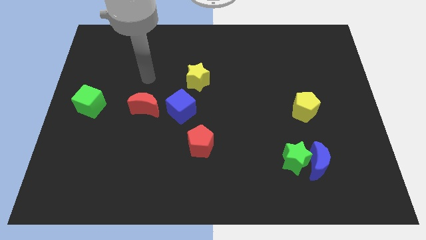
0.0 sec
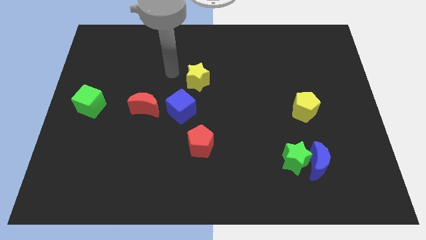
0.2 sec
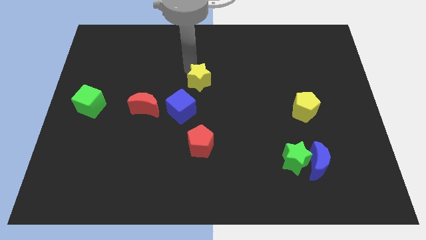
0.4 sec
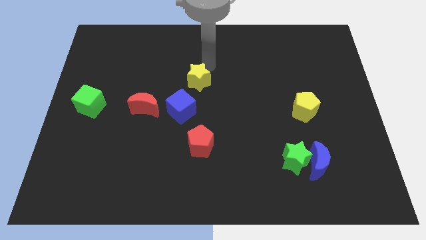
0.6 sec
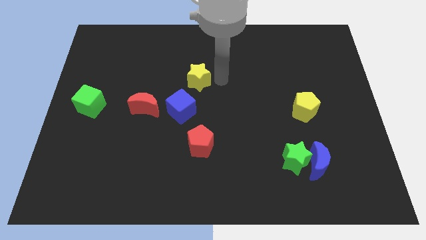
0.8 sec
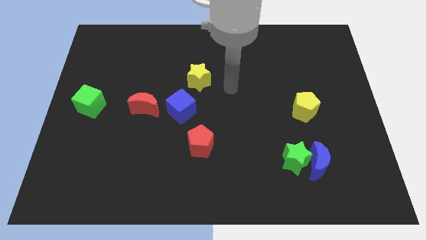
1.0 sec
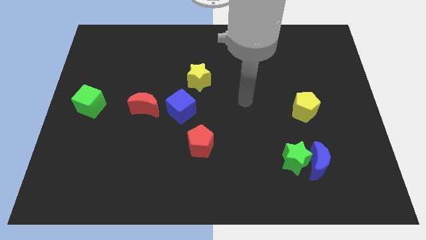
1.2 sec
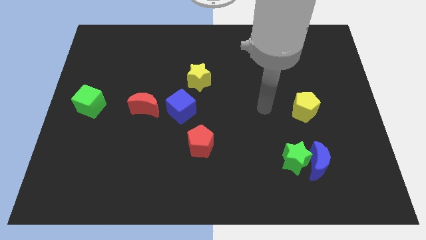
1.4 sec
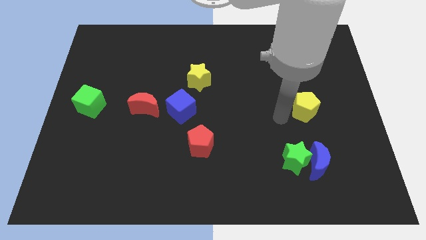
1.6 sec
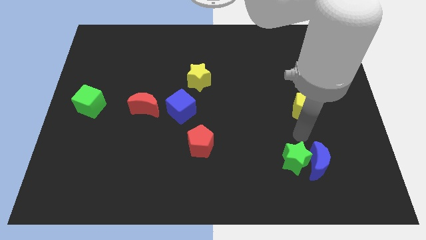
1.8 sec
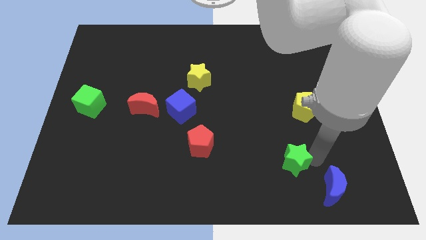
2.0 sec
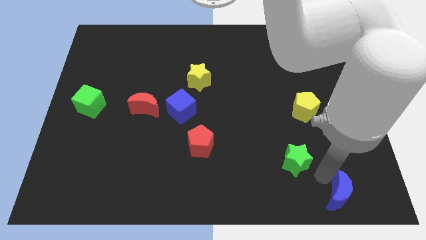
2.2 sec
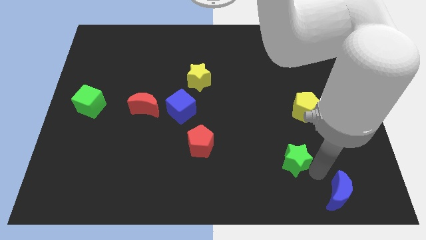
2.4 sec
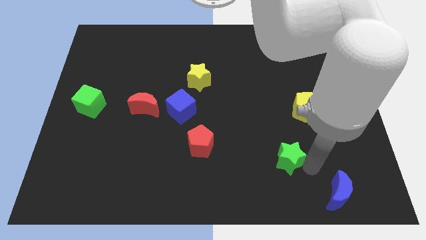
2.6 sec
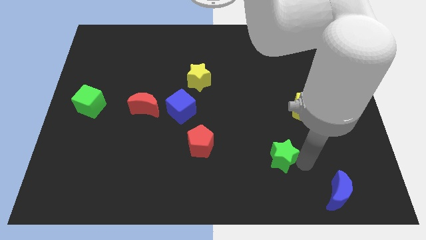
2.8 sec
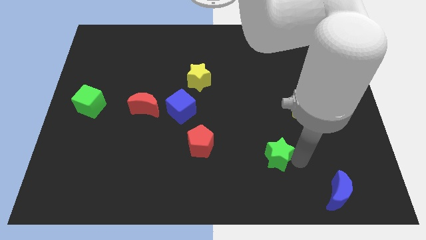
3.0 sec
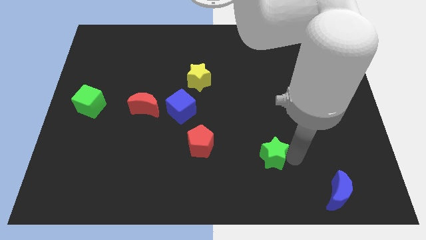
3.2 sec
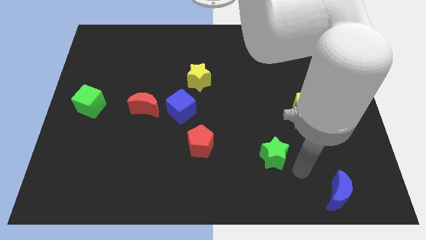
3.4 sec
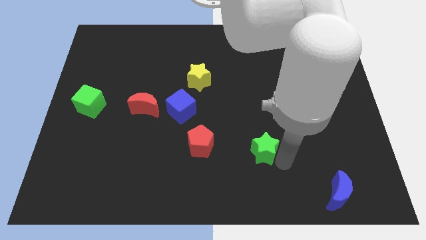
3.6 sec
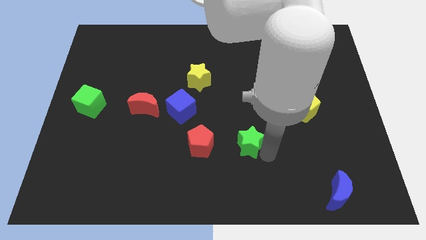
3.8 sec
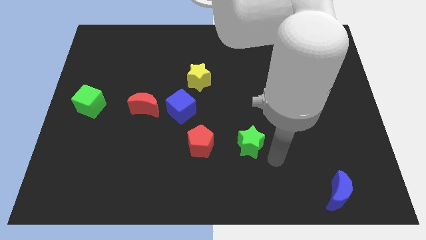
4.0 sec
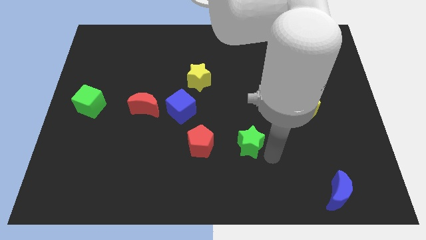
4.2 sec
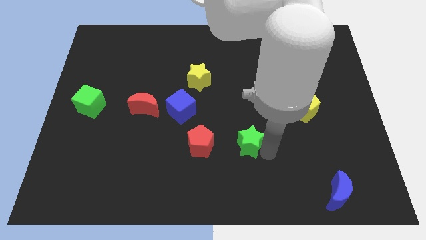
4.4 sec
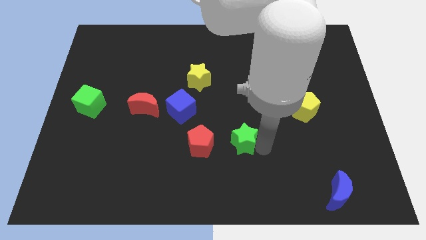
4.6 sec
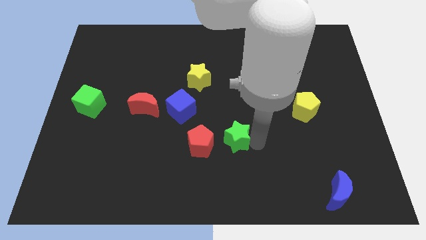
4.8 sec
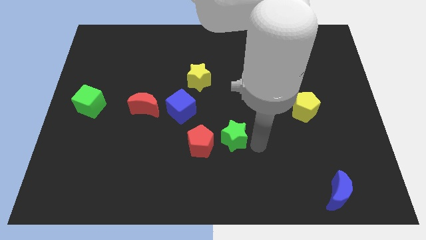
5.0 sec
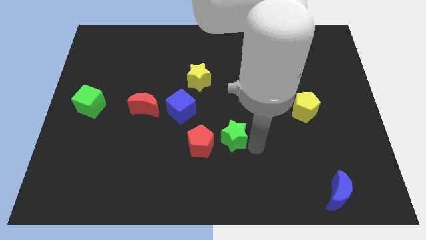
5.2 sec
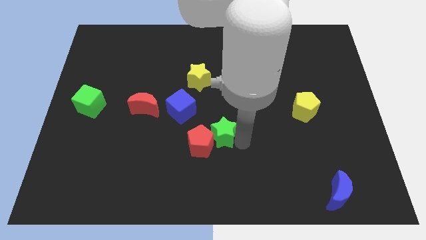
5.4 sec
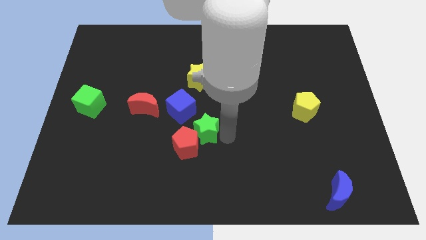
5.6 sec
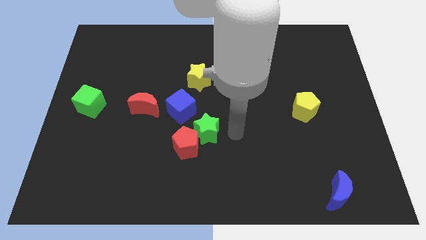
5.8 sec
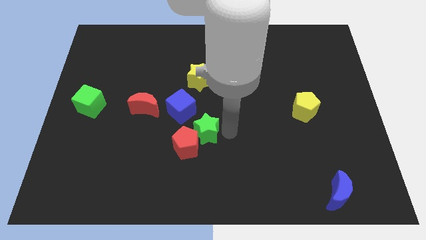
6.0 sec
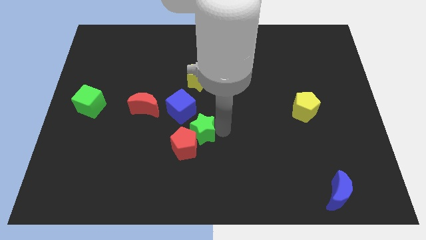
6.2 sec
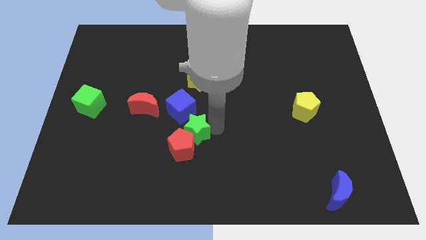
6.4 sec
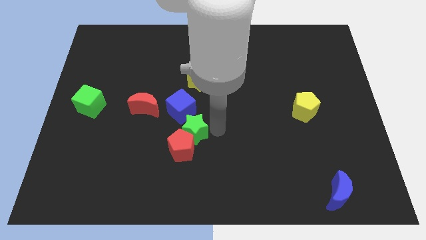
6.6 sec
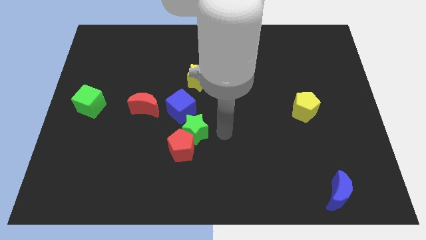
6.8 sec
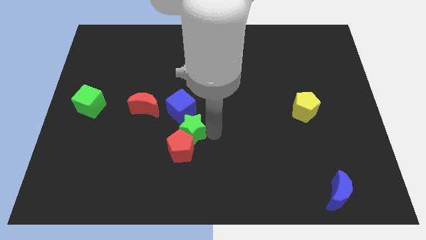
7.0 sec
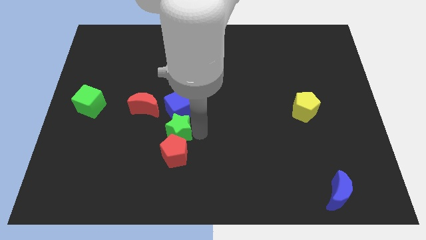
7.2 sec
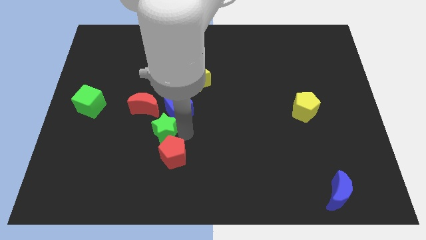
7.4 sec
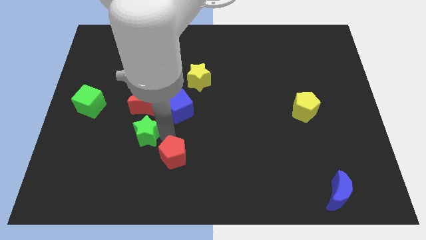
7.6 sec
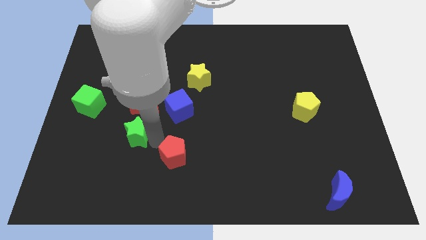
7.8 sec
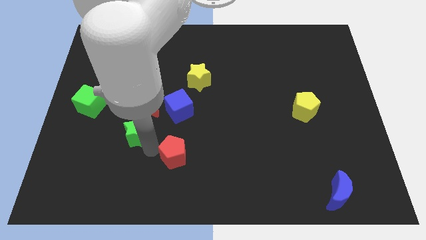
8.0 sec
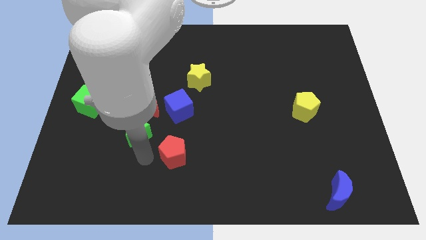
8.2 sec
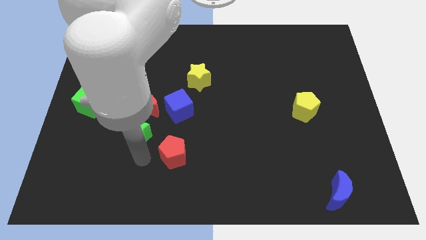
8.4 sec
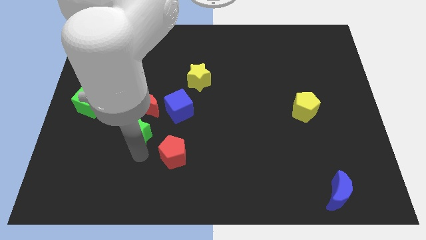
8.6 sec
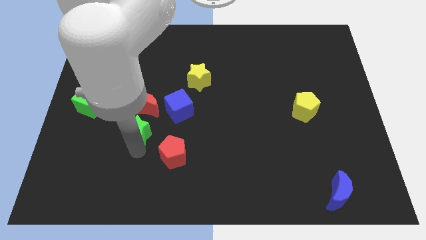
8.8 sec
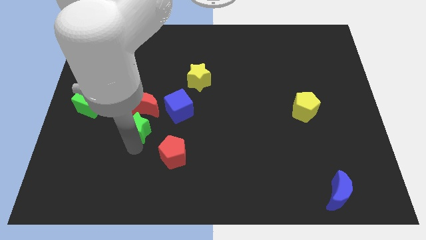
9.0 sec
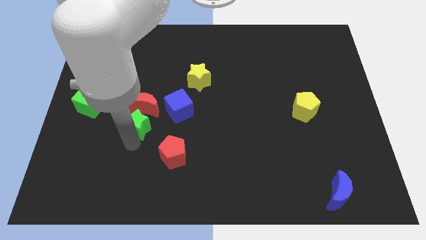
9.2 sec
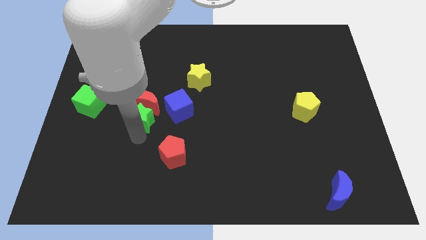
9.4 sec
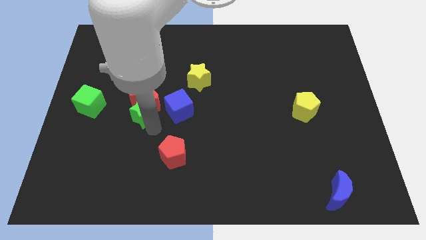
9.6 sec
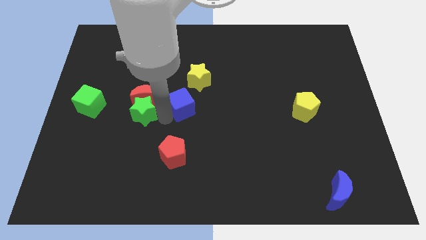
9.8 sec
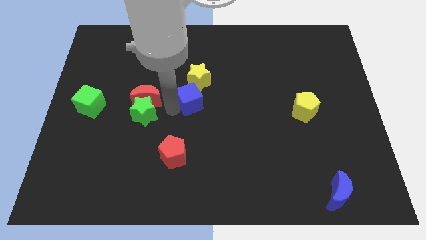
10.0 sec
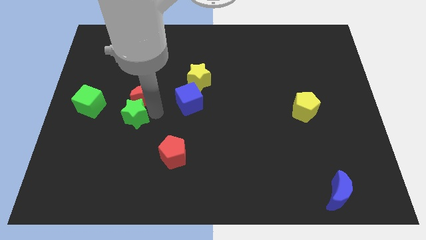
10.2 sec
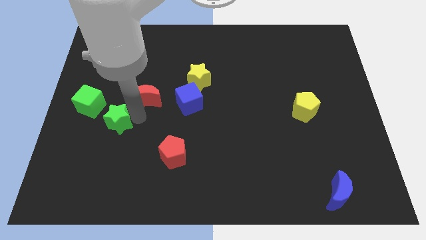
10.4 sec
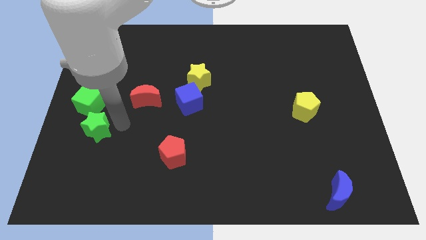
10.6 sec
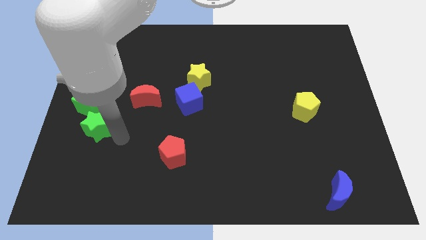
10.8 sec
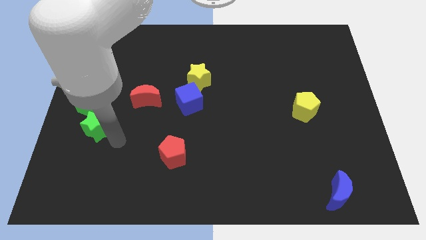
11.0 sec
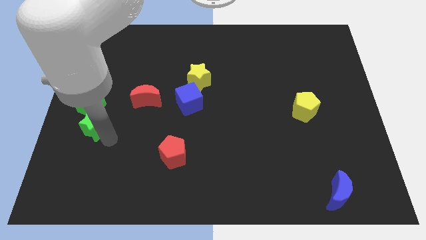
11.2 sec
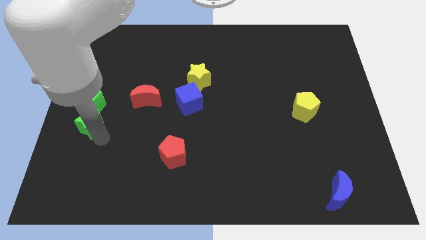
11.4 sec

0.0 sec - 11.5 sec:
put the green star to the left side

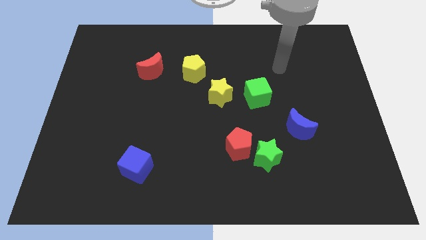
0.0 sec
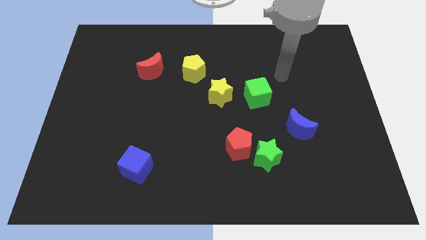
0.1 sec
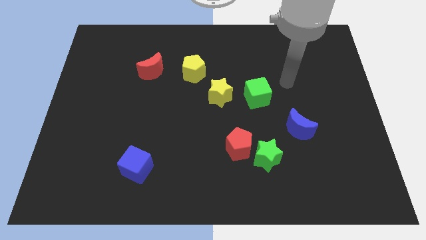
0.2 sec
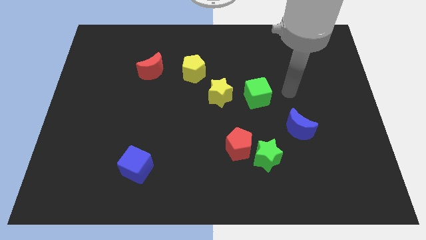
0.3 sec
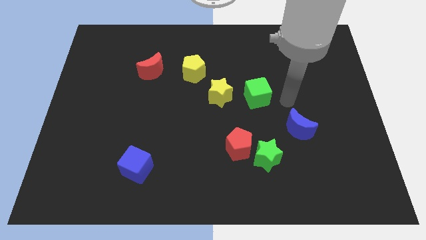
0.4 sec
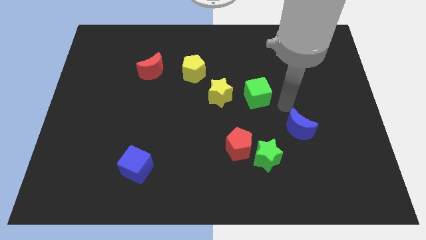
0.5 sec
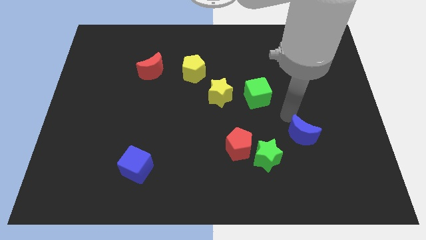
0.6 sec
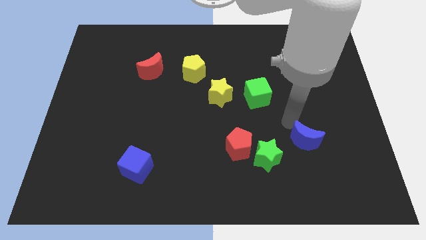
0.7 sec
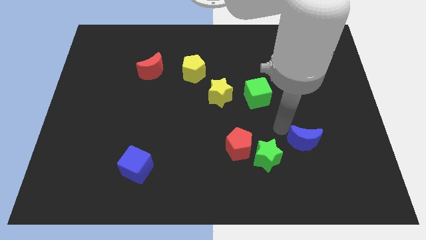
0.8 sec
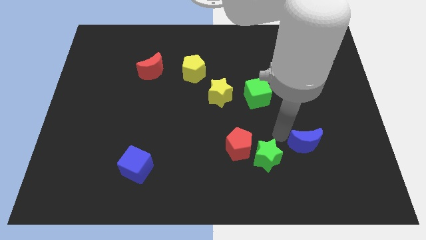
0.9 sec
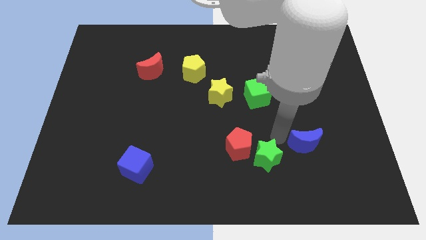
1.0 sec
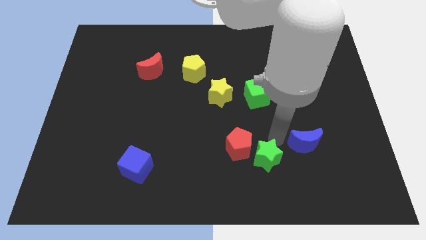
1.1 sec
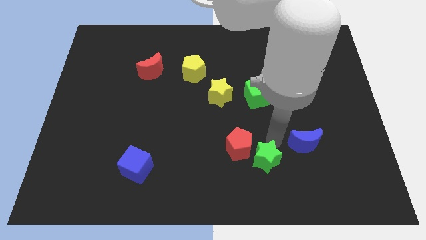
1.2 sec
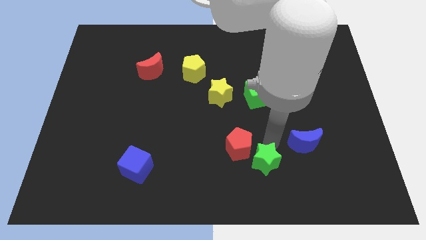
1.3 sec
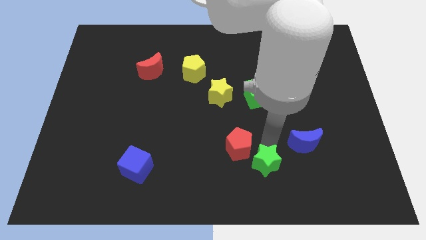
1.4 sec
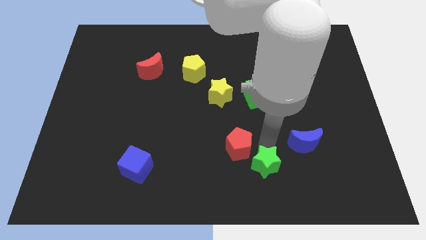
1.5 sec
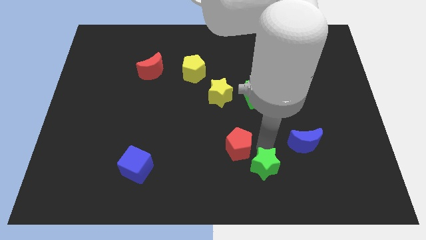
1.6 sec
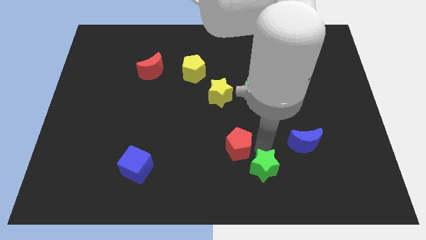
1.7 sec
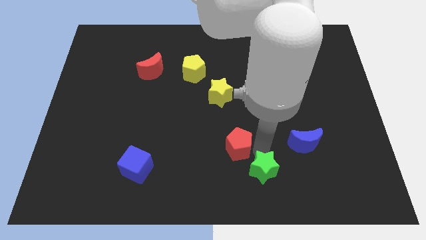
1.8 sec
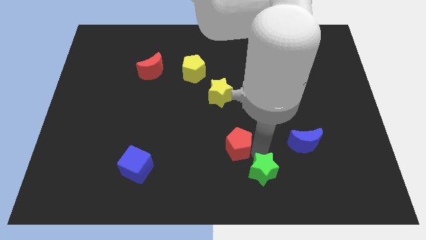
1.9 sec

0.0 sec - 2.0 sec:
slide the green star to the bottom
